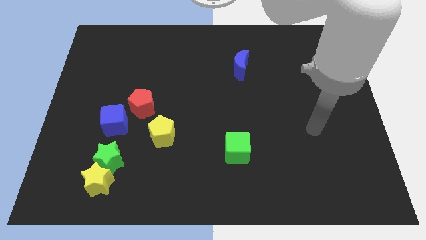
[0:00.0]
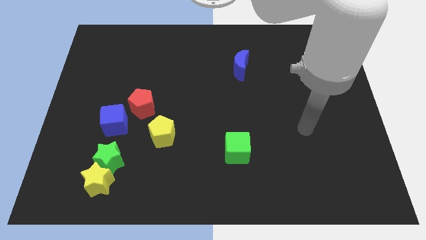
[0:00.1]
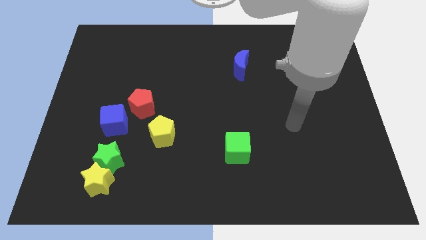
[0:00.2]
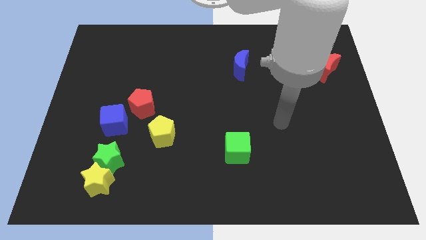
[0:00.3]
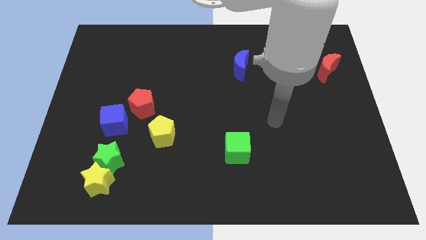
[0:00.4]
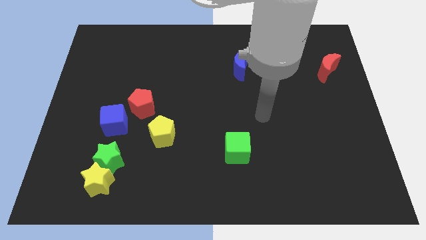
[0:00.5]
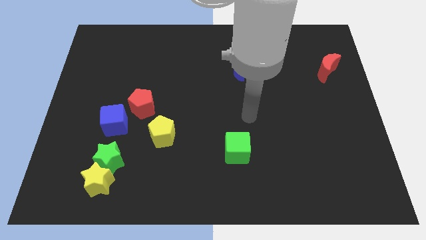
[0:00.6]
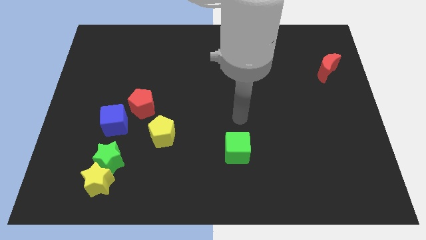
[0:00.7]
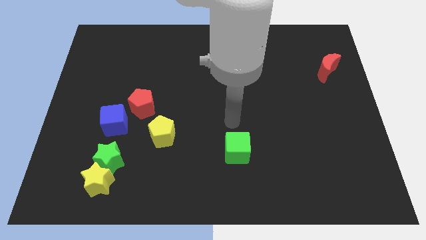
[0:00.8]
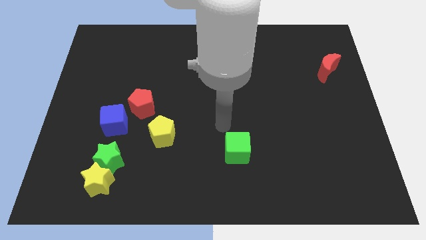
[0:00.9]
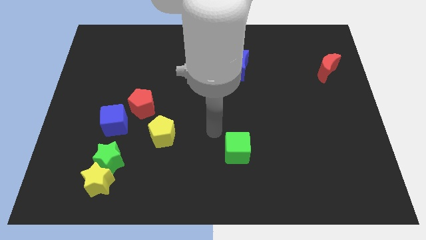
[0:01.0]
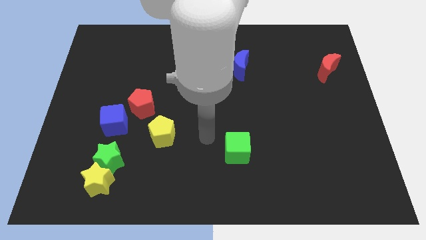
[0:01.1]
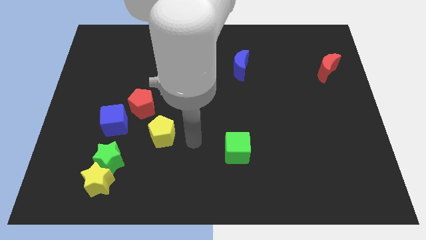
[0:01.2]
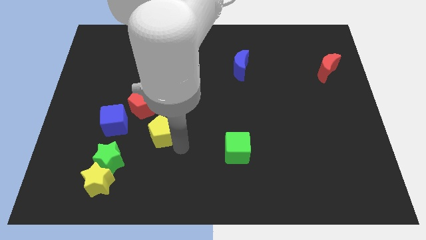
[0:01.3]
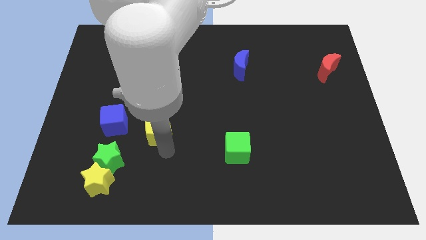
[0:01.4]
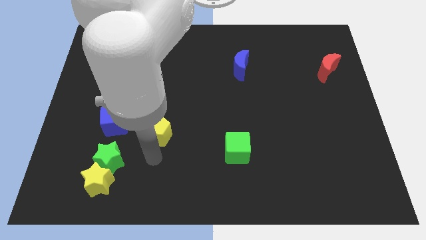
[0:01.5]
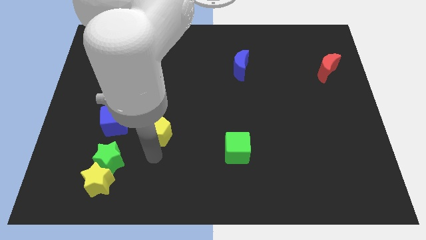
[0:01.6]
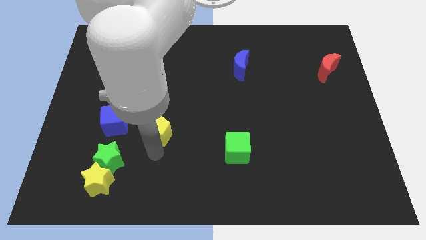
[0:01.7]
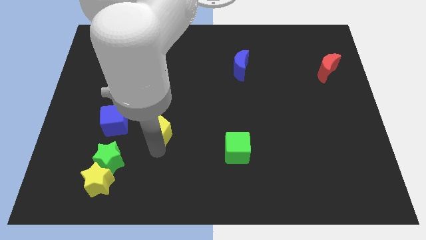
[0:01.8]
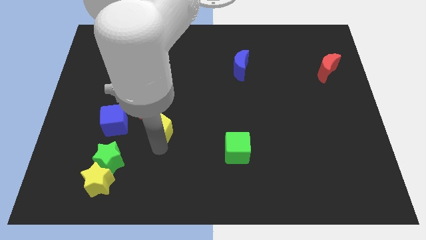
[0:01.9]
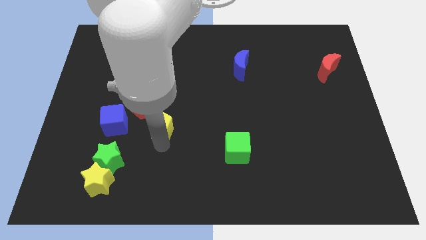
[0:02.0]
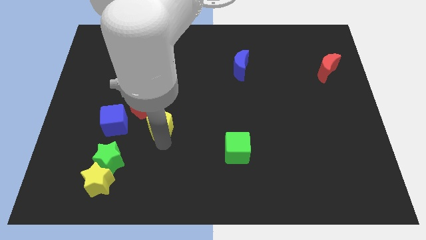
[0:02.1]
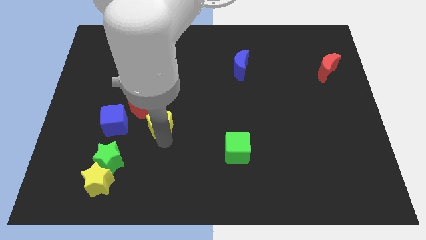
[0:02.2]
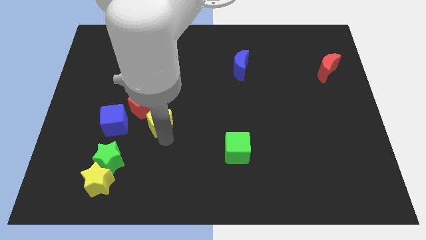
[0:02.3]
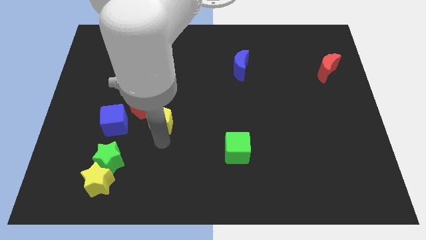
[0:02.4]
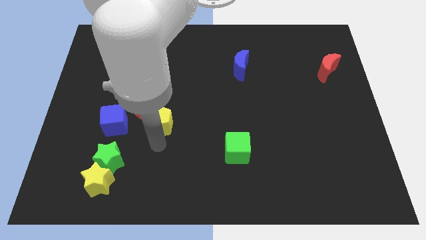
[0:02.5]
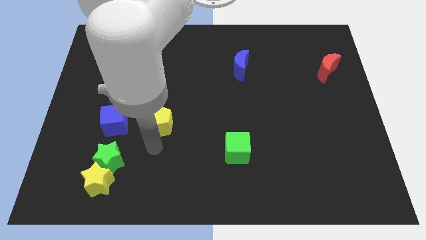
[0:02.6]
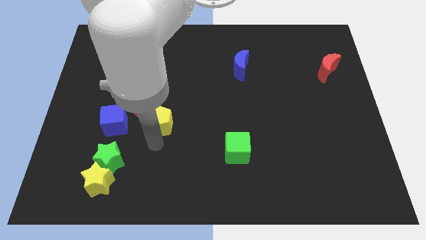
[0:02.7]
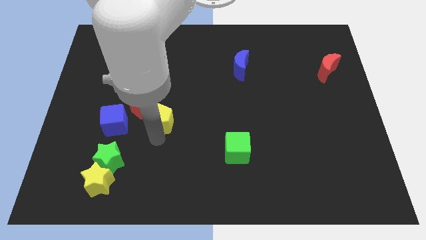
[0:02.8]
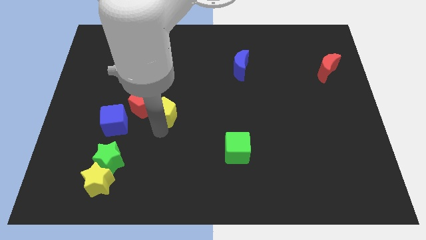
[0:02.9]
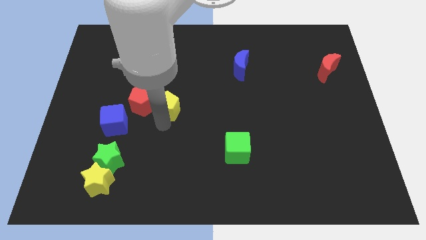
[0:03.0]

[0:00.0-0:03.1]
push the yellow pentagon up a bit

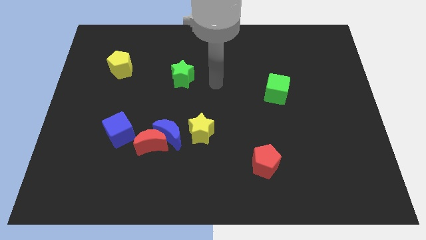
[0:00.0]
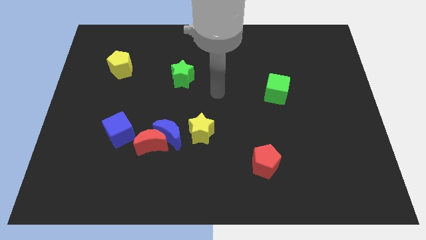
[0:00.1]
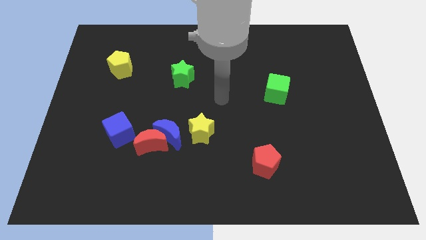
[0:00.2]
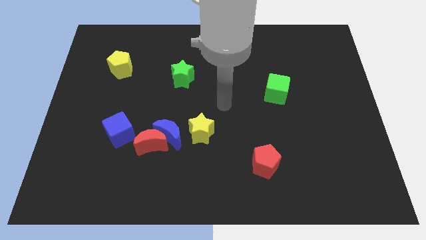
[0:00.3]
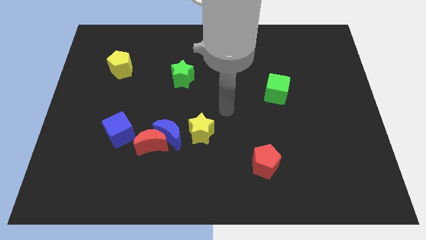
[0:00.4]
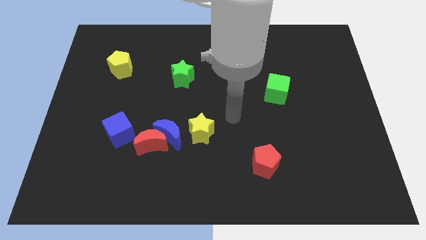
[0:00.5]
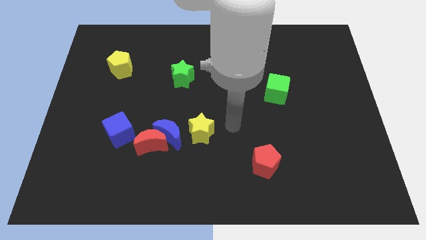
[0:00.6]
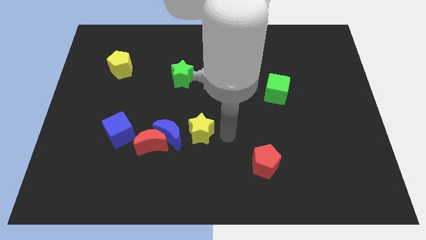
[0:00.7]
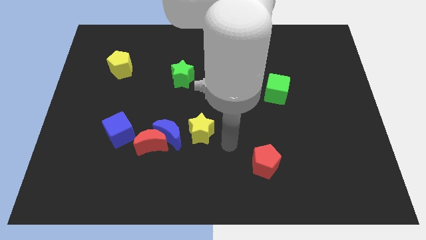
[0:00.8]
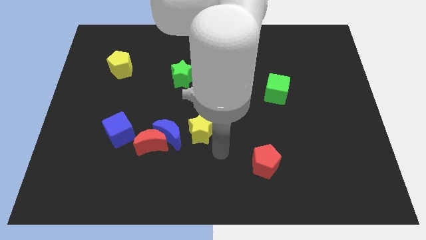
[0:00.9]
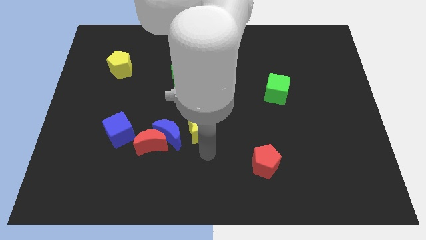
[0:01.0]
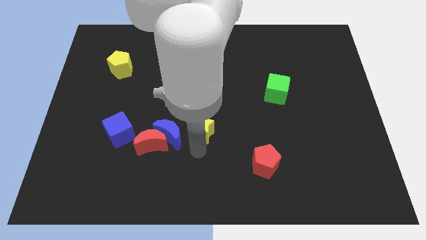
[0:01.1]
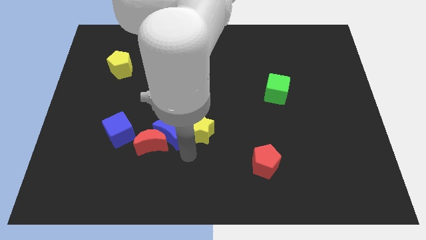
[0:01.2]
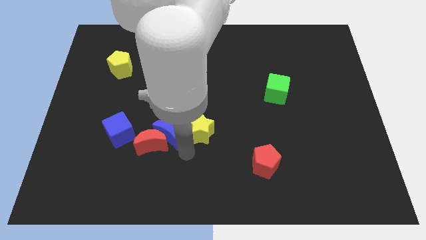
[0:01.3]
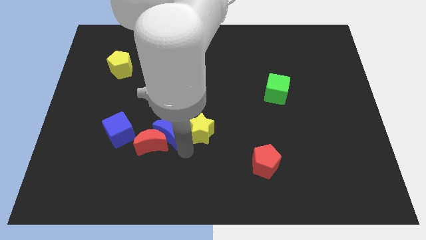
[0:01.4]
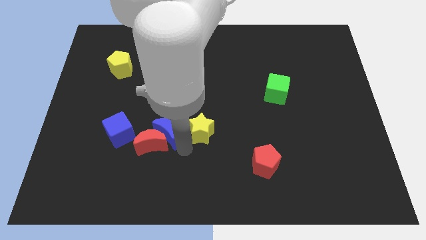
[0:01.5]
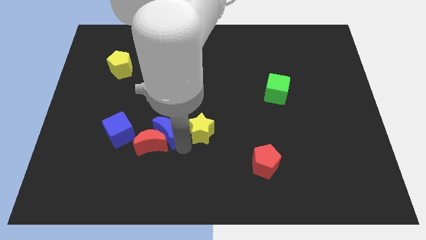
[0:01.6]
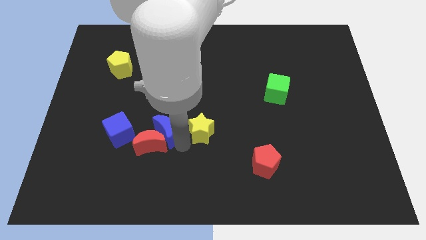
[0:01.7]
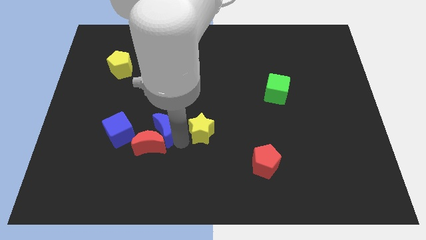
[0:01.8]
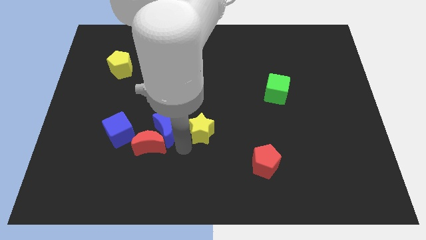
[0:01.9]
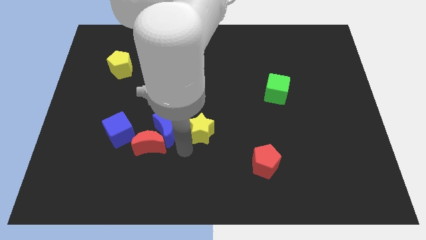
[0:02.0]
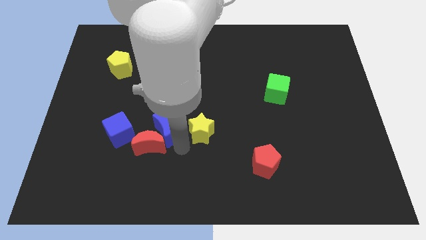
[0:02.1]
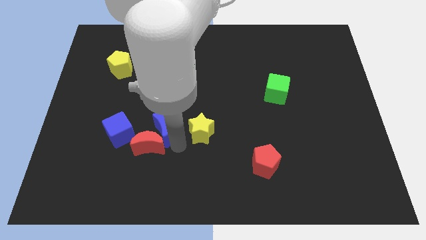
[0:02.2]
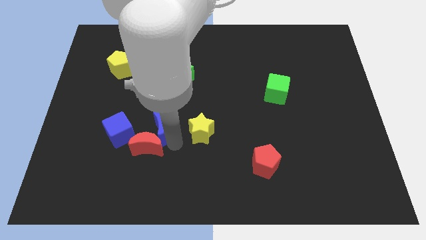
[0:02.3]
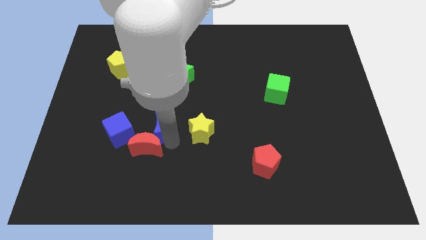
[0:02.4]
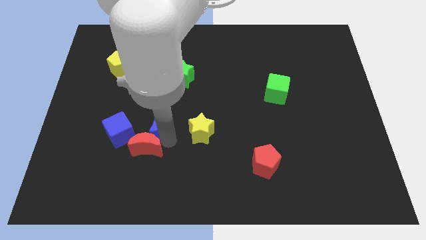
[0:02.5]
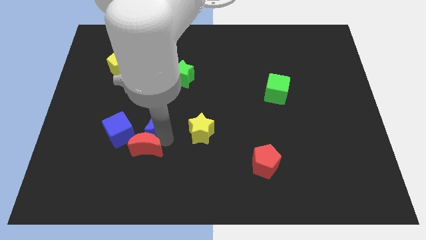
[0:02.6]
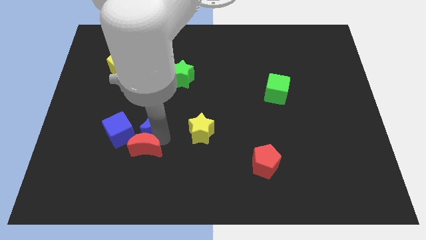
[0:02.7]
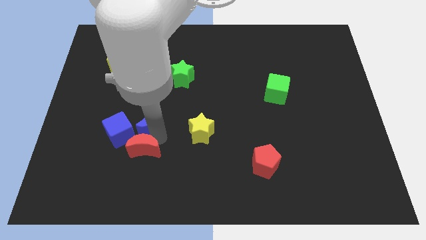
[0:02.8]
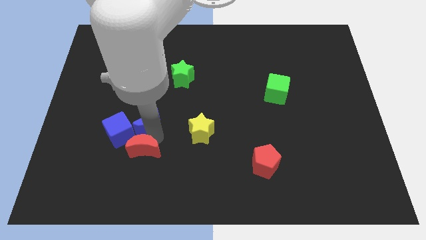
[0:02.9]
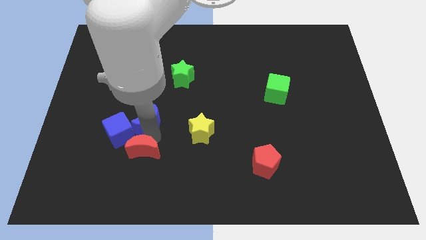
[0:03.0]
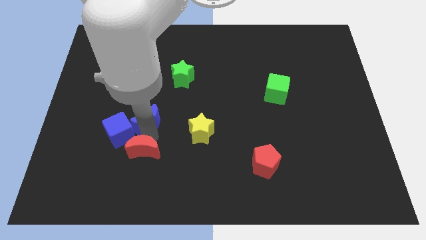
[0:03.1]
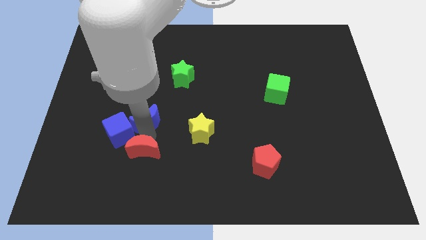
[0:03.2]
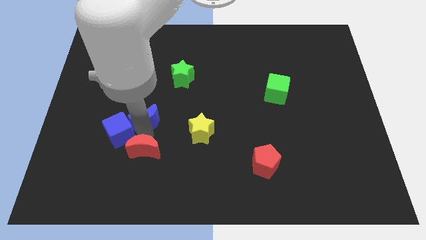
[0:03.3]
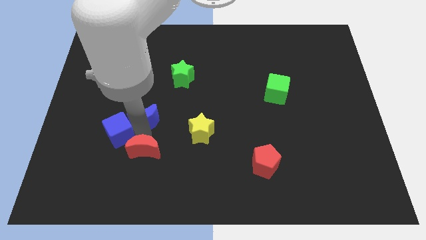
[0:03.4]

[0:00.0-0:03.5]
slightly push the blue moon diagonally up and to the left

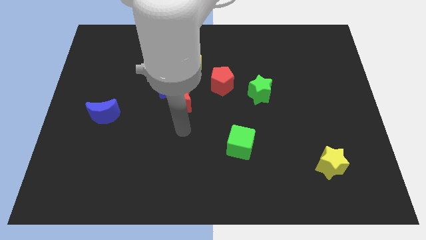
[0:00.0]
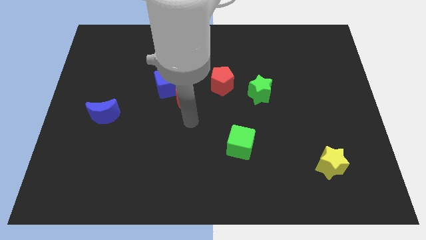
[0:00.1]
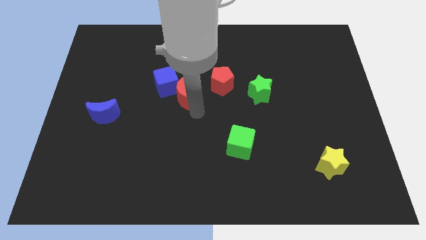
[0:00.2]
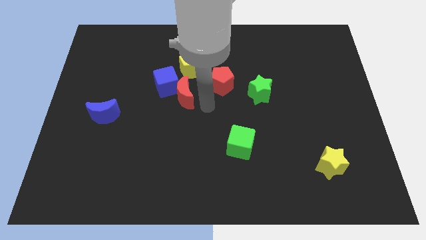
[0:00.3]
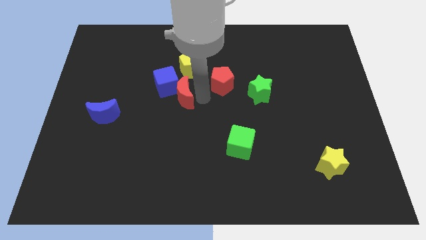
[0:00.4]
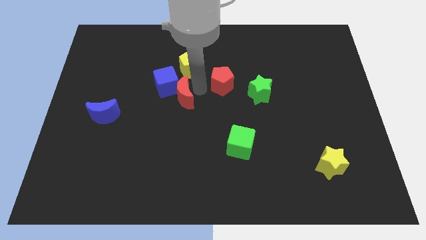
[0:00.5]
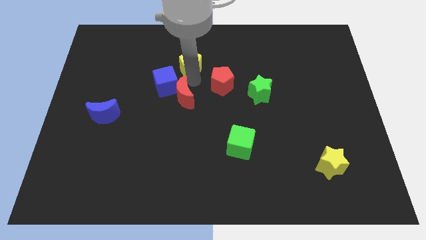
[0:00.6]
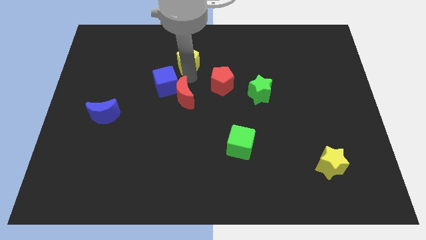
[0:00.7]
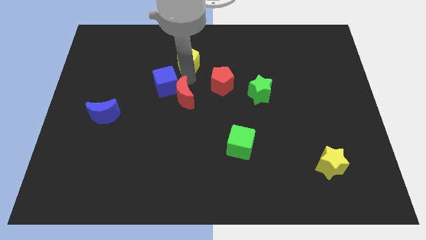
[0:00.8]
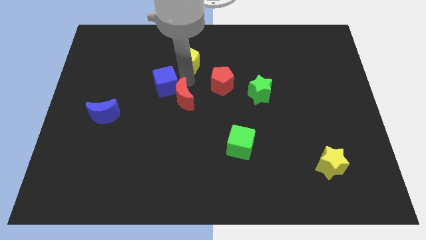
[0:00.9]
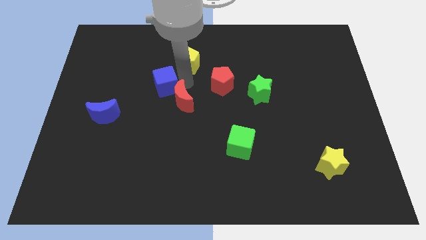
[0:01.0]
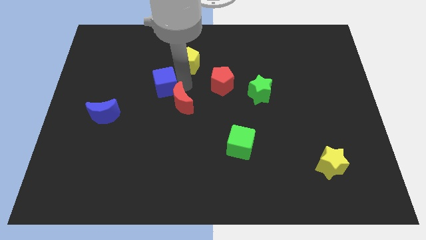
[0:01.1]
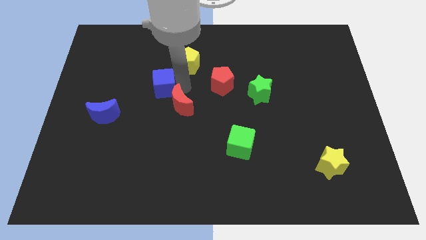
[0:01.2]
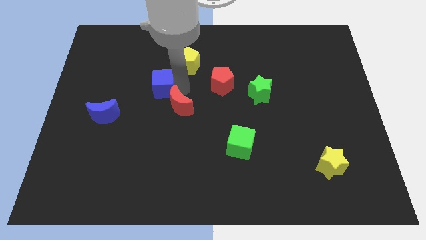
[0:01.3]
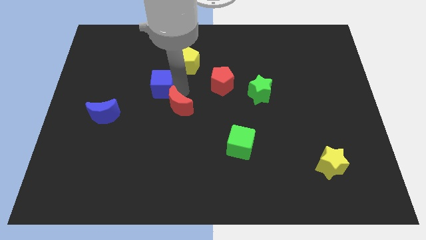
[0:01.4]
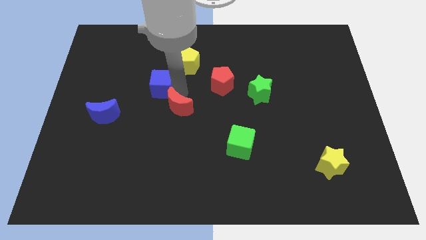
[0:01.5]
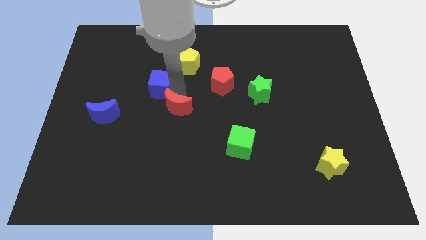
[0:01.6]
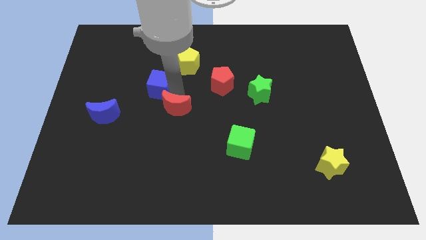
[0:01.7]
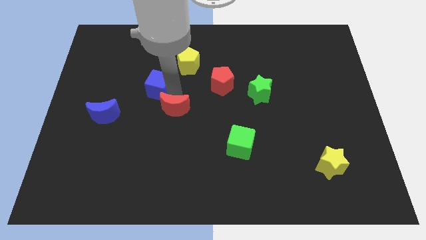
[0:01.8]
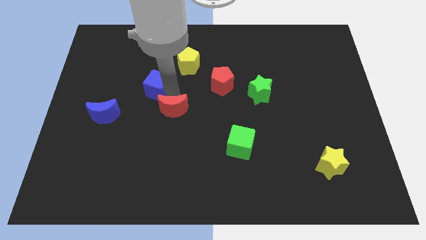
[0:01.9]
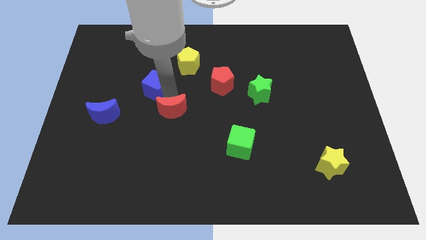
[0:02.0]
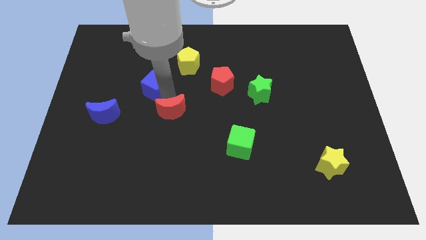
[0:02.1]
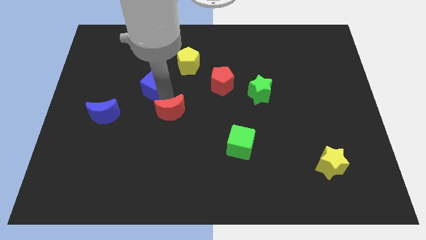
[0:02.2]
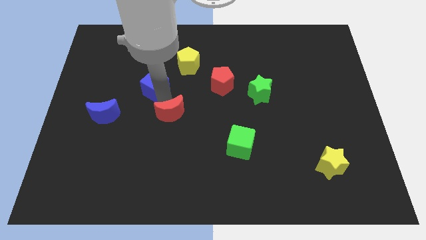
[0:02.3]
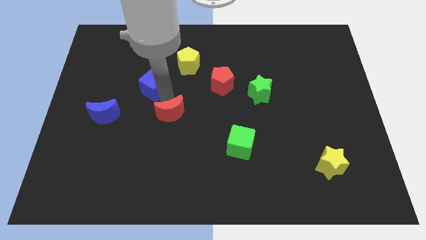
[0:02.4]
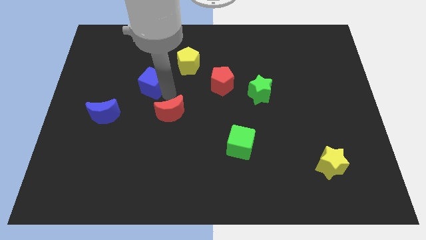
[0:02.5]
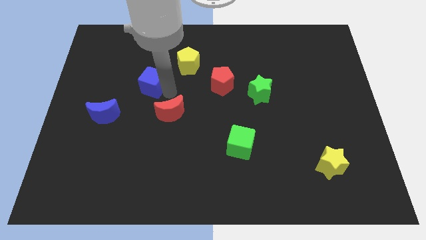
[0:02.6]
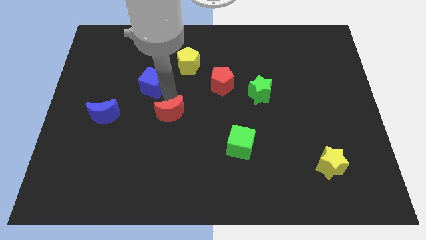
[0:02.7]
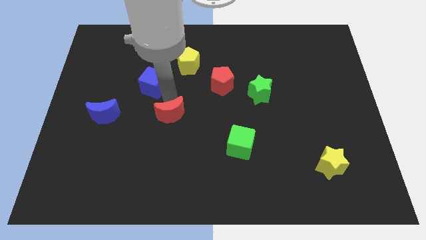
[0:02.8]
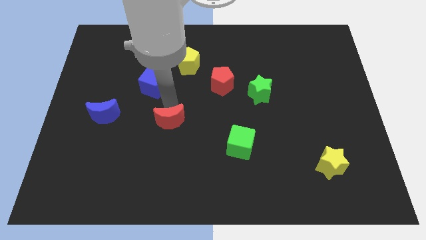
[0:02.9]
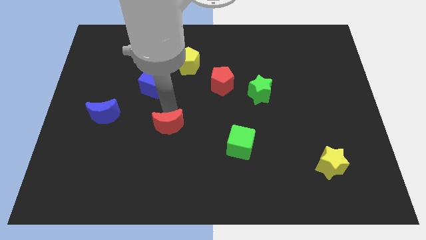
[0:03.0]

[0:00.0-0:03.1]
push the red moon downwards a bit
